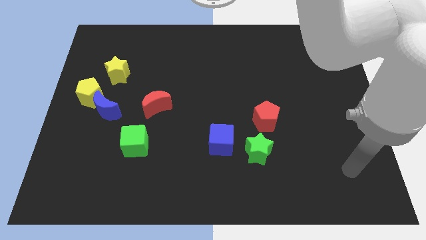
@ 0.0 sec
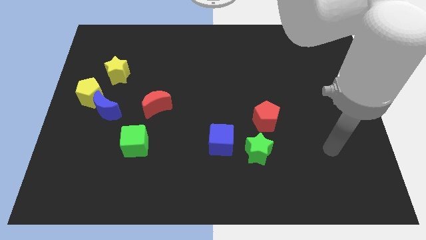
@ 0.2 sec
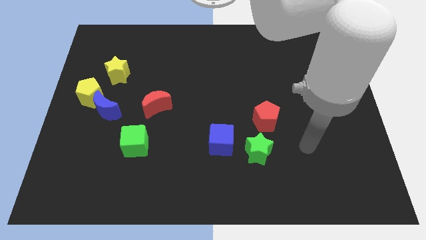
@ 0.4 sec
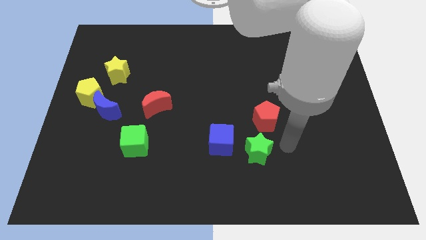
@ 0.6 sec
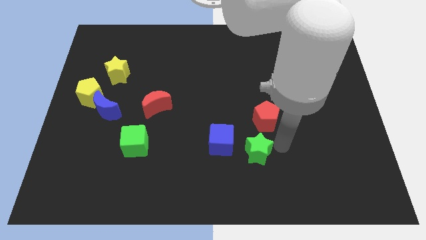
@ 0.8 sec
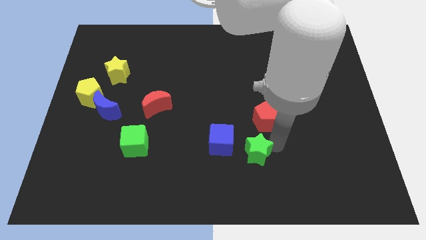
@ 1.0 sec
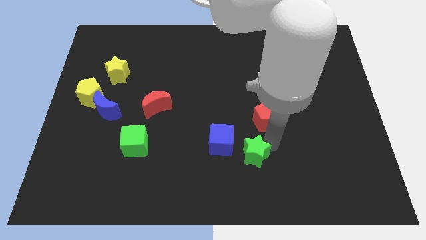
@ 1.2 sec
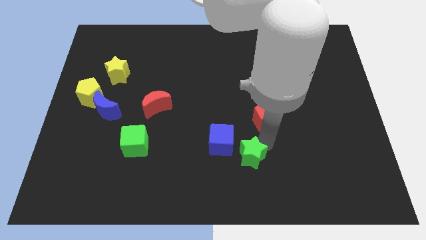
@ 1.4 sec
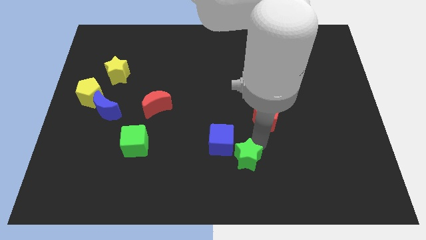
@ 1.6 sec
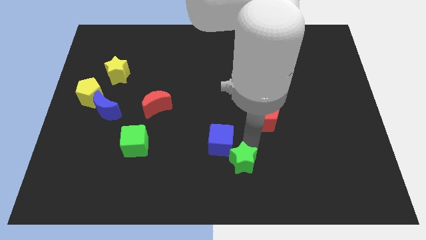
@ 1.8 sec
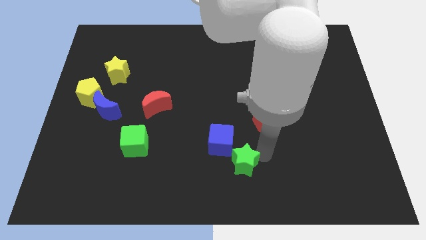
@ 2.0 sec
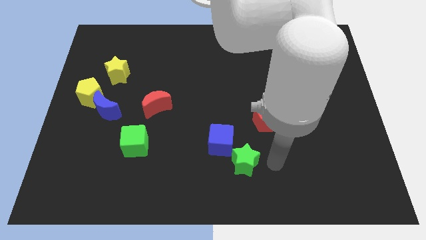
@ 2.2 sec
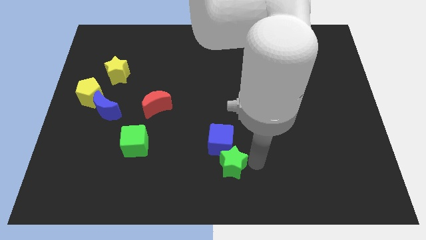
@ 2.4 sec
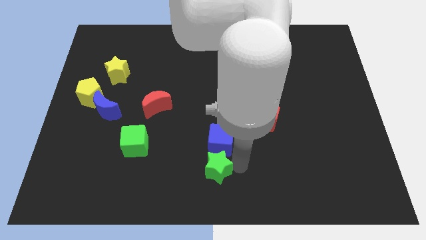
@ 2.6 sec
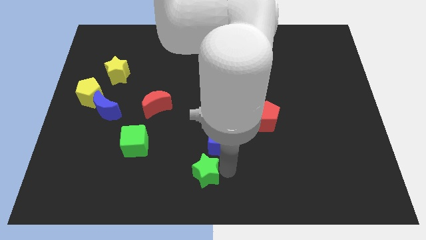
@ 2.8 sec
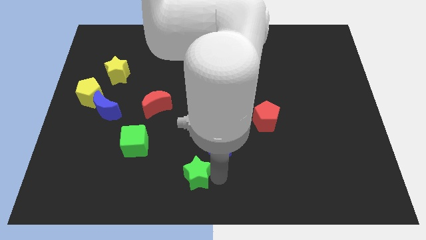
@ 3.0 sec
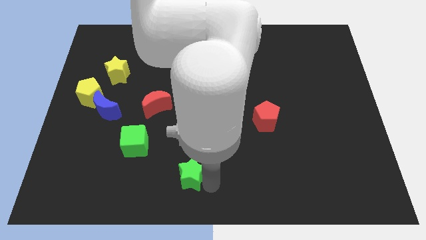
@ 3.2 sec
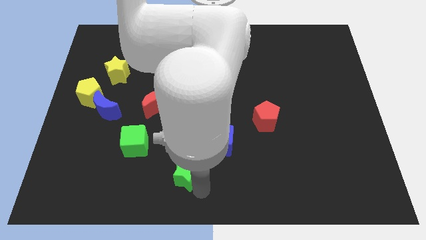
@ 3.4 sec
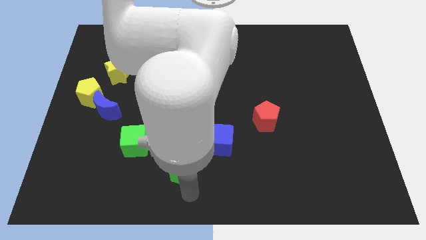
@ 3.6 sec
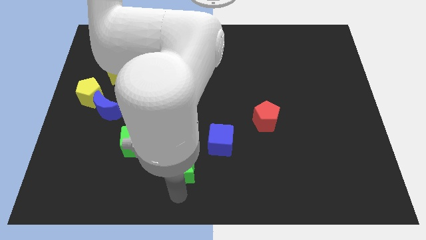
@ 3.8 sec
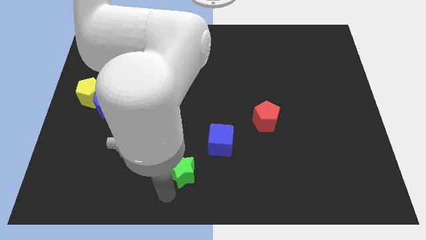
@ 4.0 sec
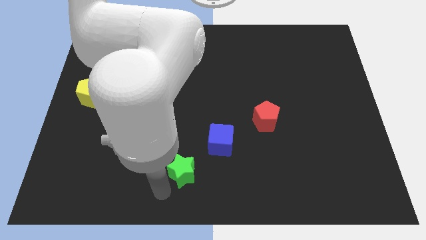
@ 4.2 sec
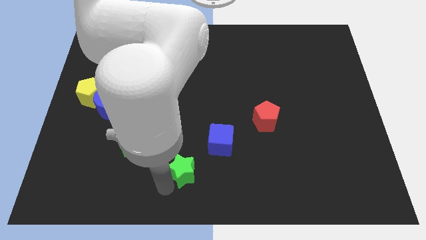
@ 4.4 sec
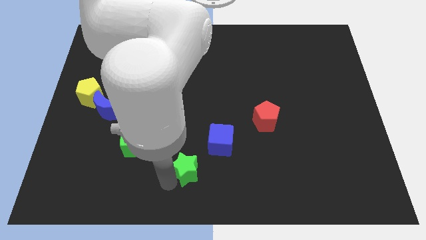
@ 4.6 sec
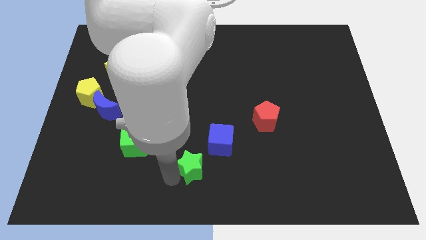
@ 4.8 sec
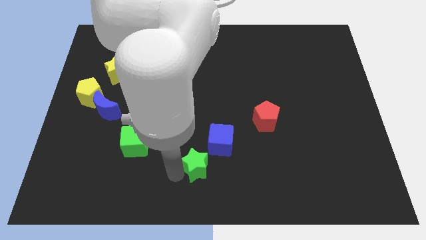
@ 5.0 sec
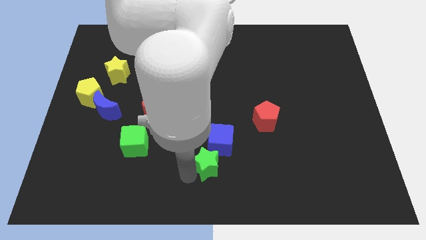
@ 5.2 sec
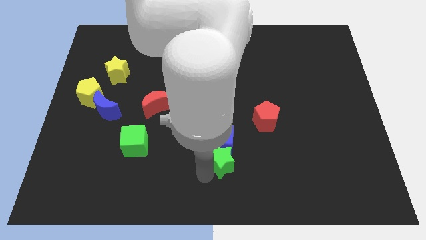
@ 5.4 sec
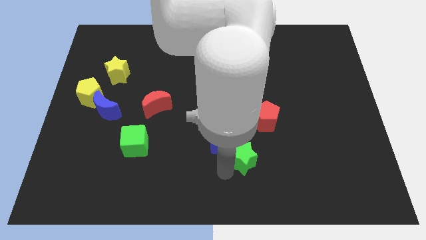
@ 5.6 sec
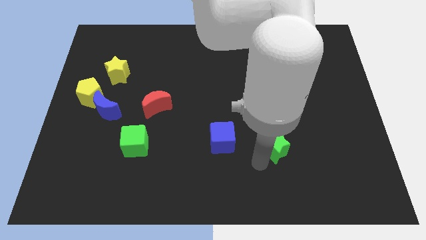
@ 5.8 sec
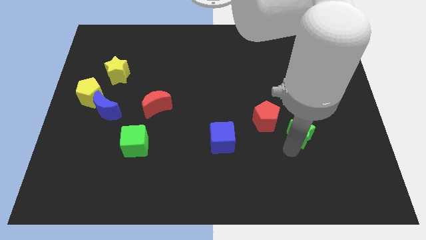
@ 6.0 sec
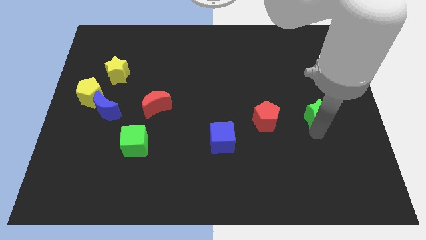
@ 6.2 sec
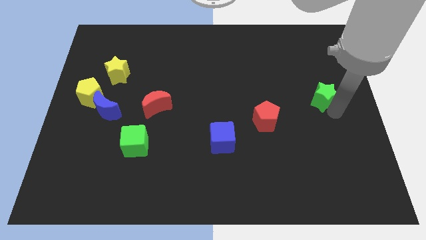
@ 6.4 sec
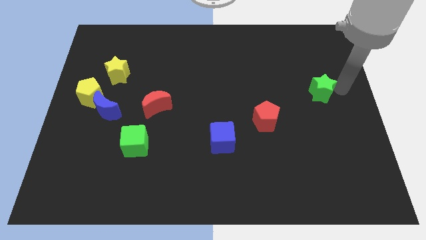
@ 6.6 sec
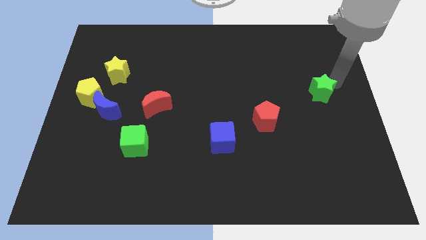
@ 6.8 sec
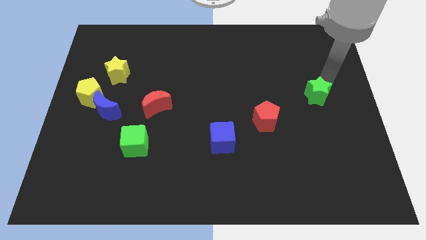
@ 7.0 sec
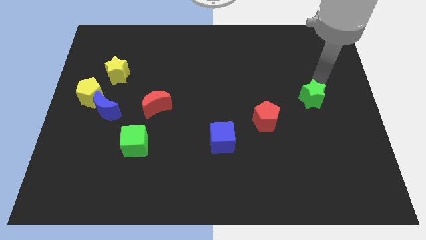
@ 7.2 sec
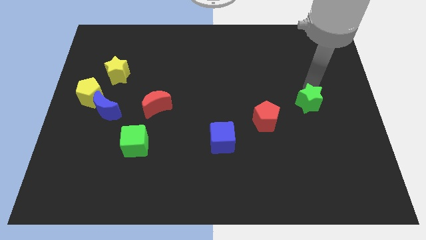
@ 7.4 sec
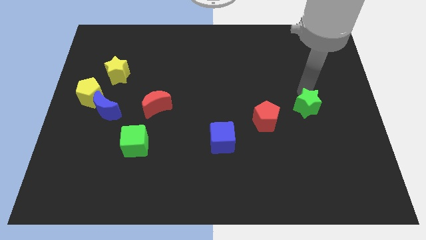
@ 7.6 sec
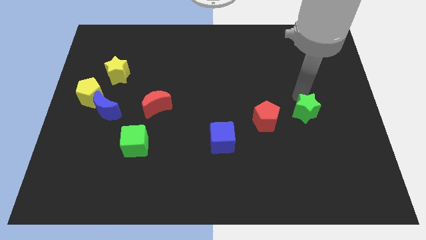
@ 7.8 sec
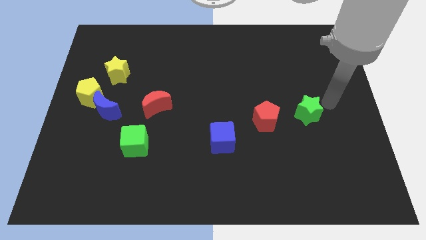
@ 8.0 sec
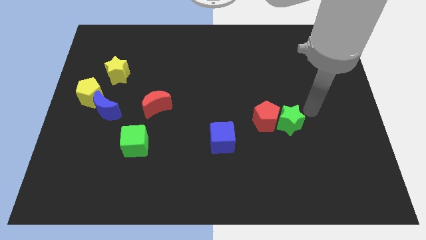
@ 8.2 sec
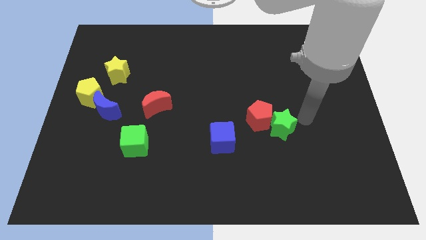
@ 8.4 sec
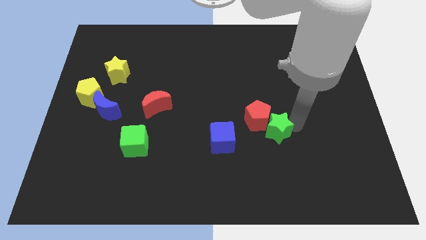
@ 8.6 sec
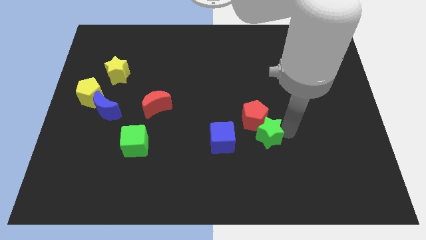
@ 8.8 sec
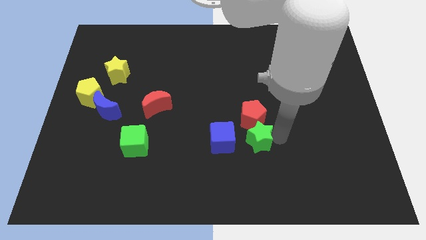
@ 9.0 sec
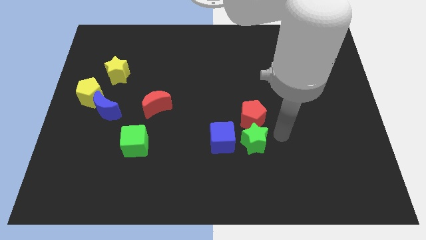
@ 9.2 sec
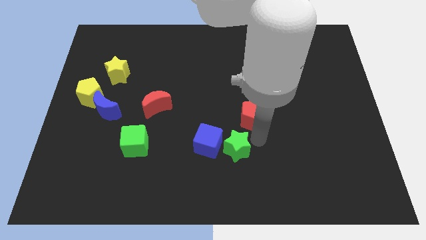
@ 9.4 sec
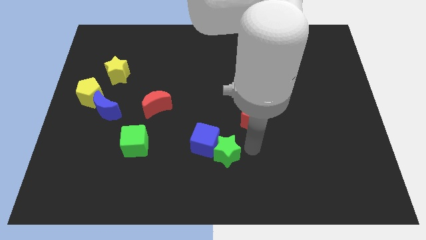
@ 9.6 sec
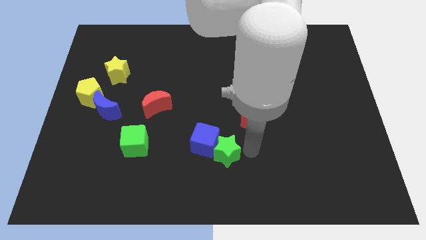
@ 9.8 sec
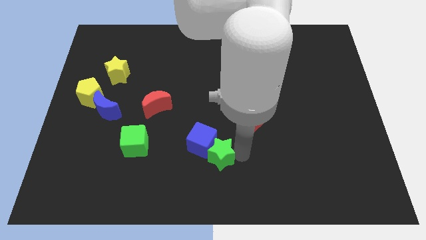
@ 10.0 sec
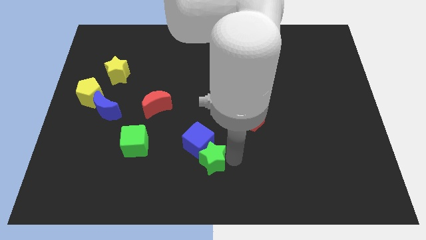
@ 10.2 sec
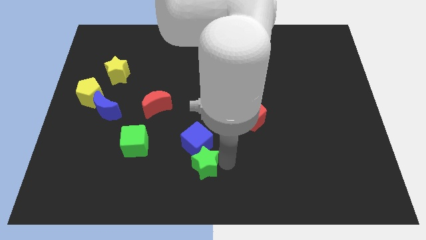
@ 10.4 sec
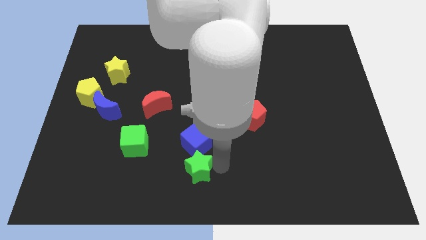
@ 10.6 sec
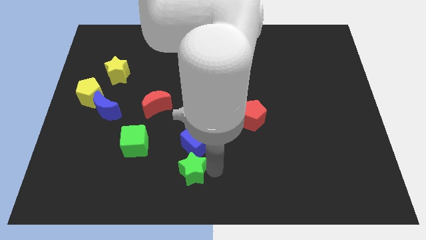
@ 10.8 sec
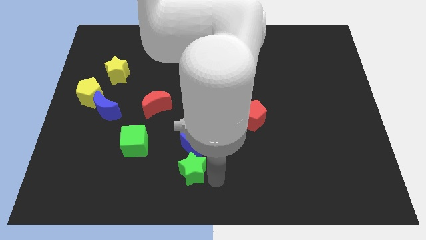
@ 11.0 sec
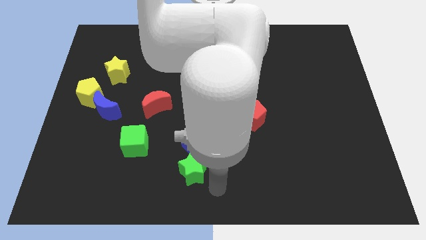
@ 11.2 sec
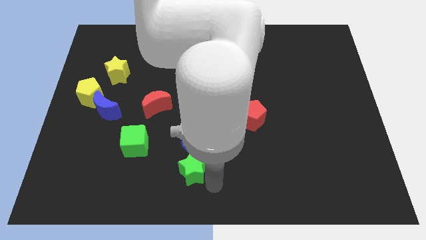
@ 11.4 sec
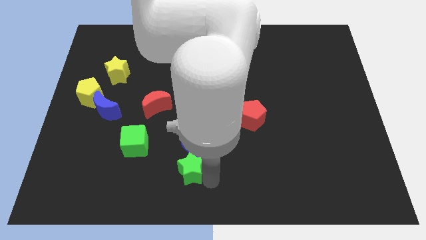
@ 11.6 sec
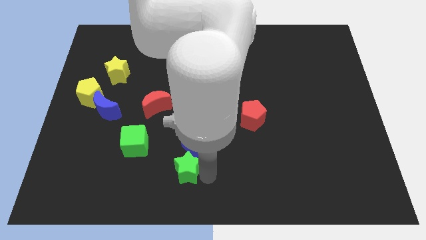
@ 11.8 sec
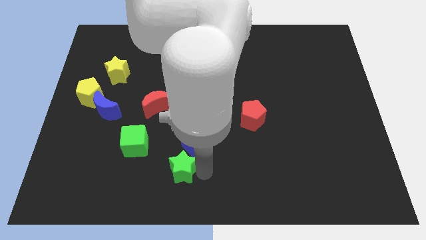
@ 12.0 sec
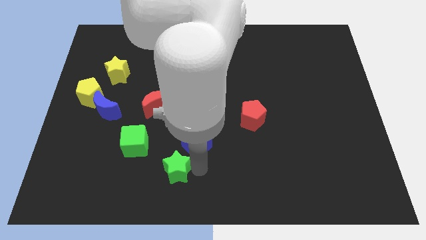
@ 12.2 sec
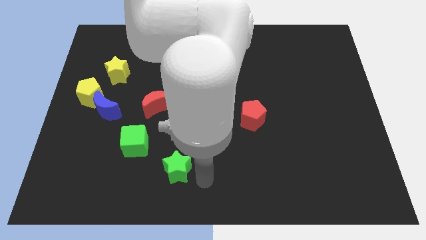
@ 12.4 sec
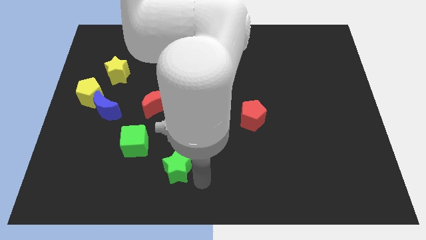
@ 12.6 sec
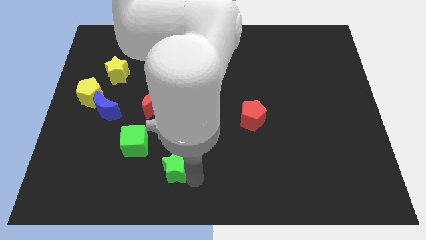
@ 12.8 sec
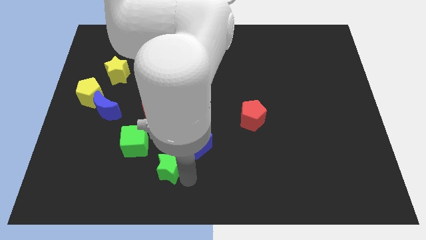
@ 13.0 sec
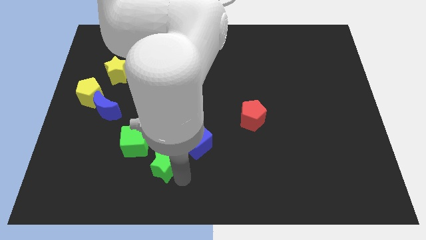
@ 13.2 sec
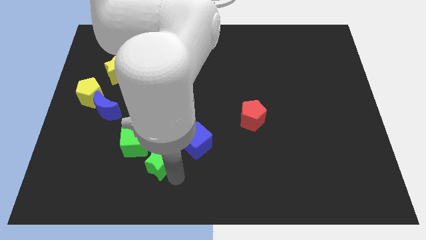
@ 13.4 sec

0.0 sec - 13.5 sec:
slide the green star left

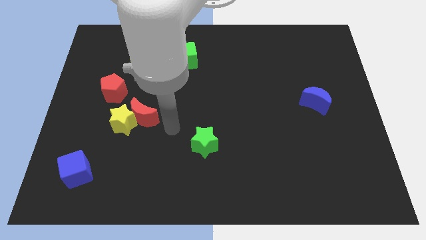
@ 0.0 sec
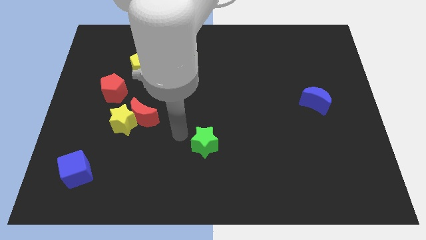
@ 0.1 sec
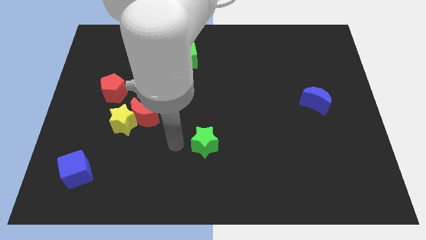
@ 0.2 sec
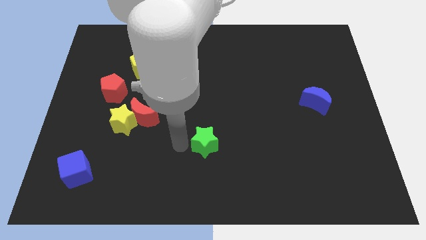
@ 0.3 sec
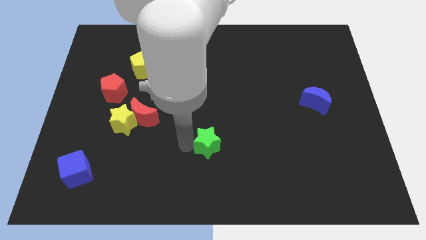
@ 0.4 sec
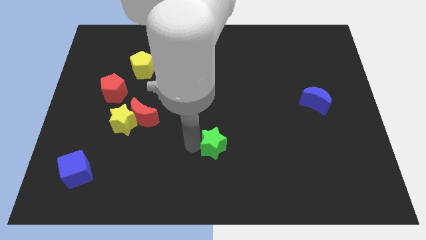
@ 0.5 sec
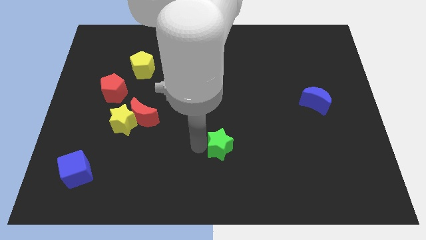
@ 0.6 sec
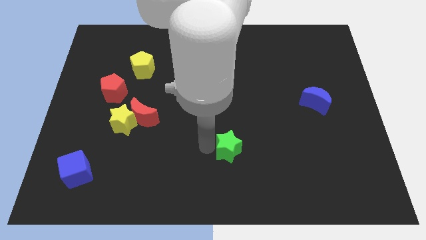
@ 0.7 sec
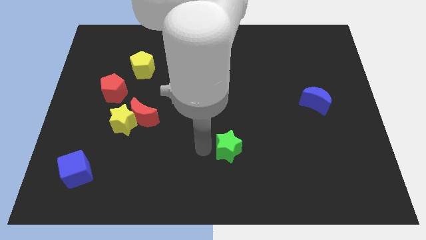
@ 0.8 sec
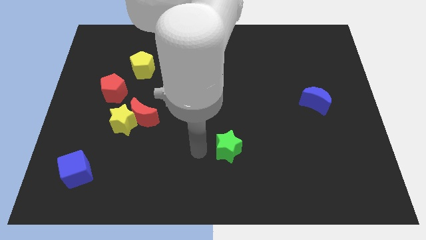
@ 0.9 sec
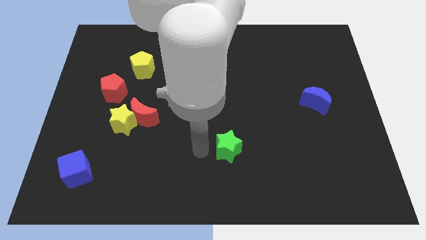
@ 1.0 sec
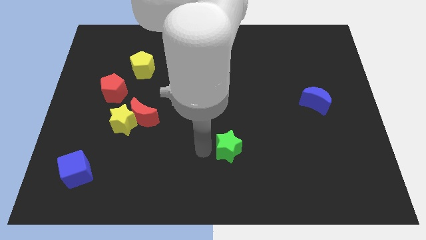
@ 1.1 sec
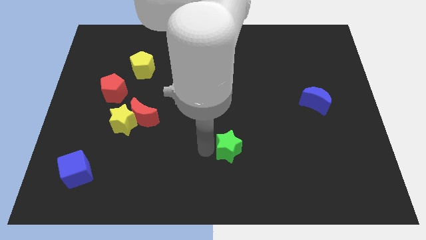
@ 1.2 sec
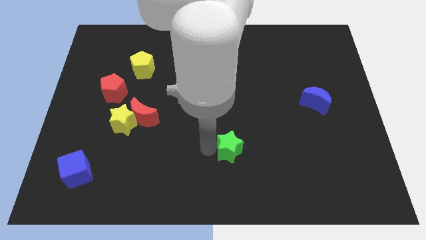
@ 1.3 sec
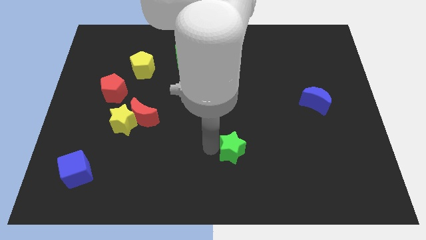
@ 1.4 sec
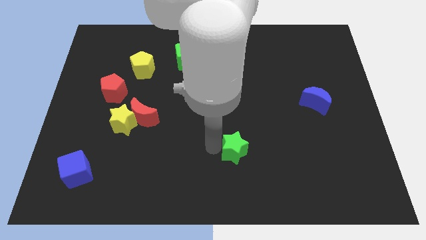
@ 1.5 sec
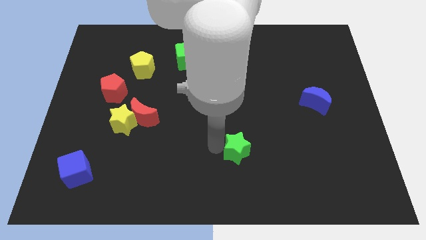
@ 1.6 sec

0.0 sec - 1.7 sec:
move the green star a little to the right
